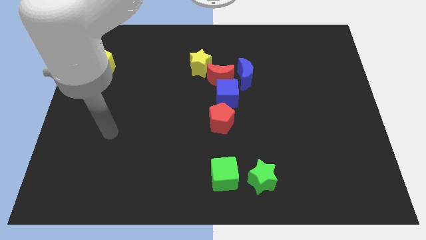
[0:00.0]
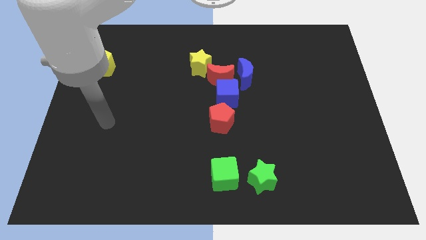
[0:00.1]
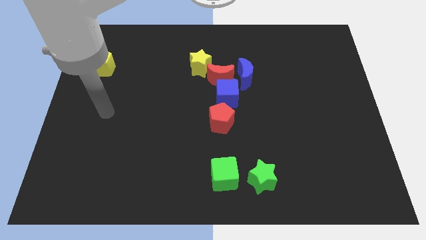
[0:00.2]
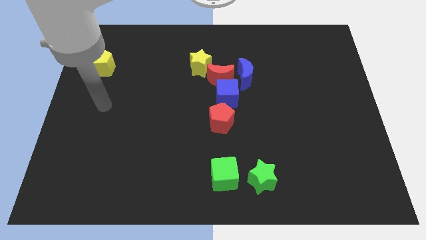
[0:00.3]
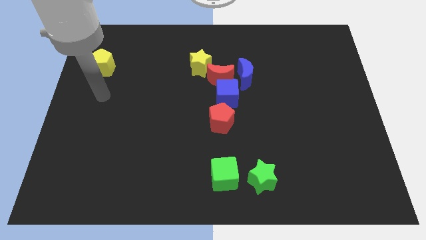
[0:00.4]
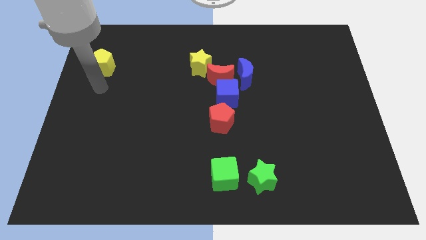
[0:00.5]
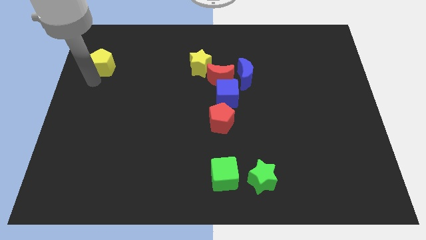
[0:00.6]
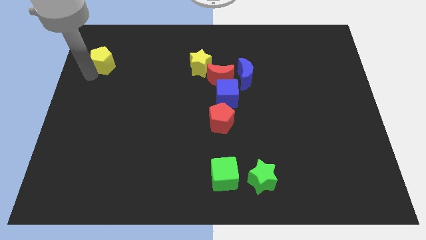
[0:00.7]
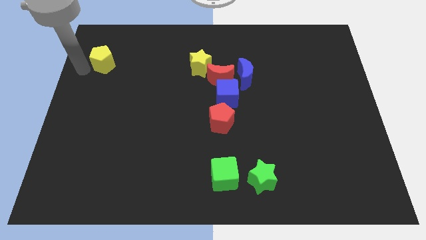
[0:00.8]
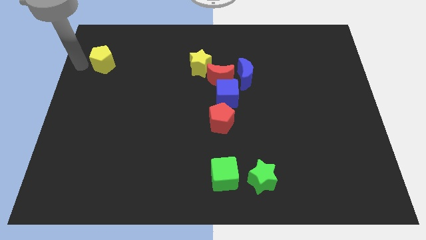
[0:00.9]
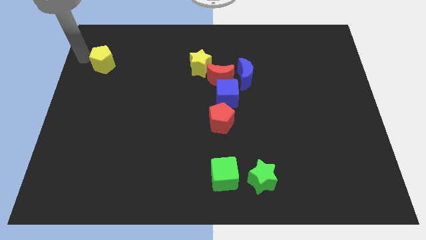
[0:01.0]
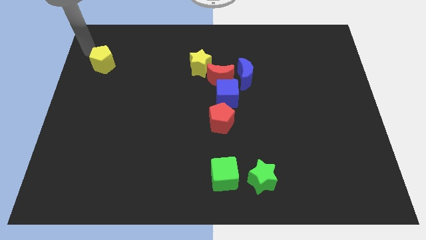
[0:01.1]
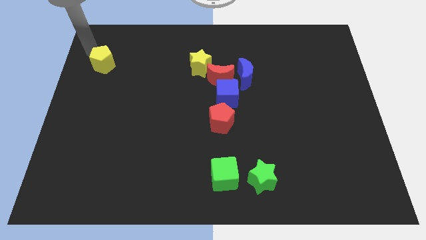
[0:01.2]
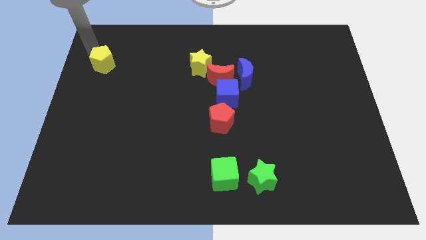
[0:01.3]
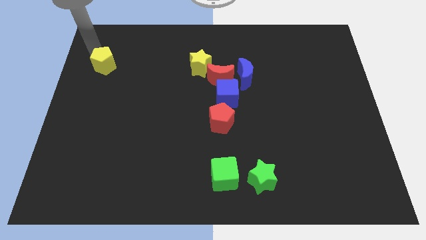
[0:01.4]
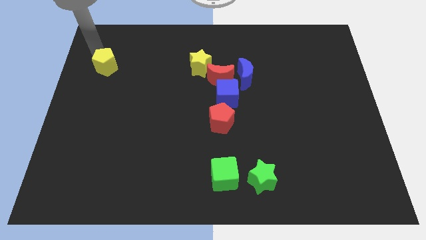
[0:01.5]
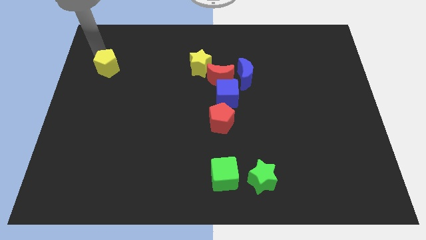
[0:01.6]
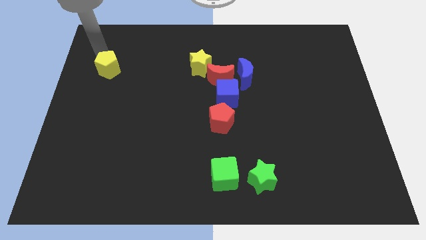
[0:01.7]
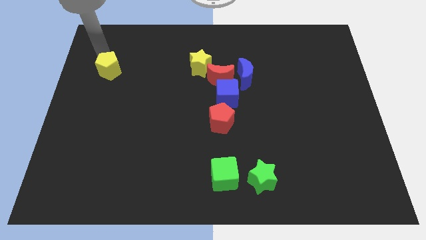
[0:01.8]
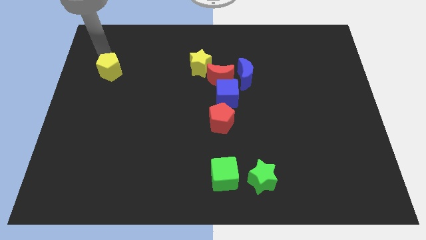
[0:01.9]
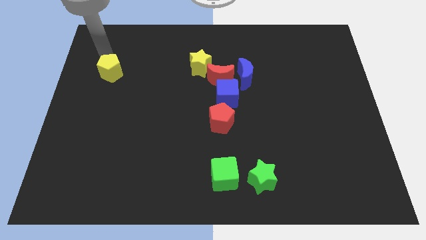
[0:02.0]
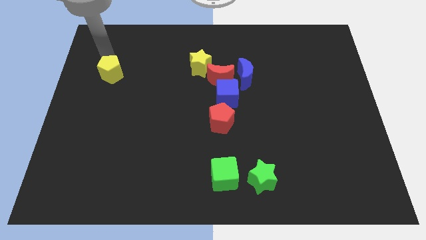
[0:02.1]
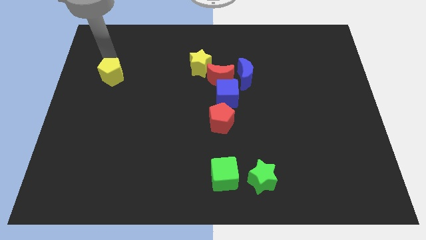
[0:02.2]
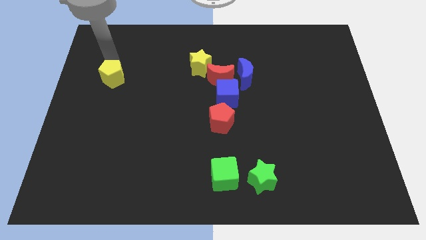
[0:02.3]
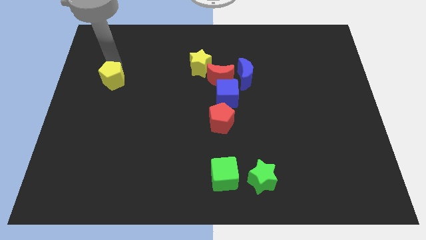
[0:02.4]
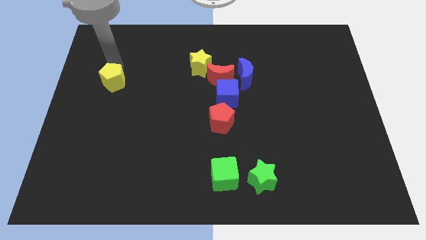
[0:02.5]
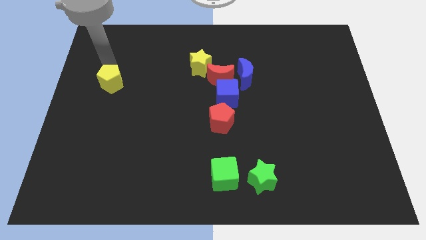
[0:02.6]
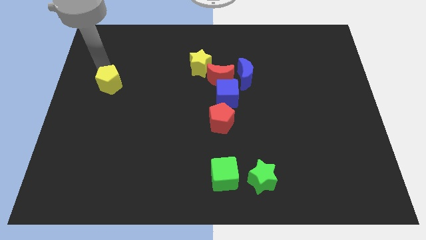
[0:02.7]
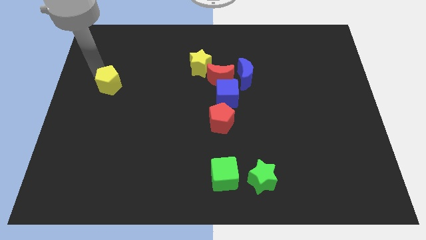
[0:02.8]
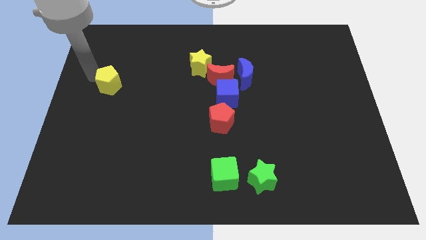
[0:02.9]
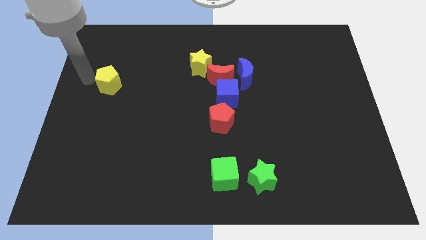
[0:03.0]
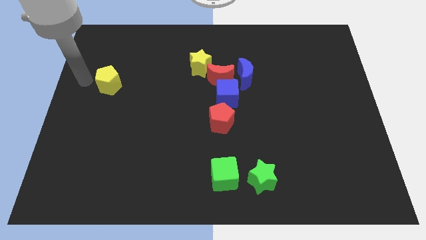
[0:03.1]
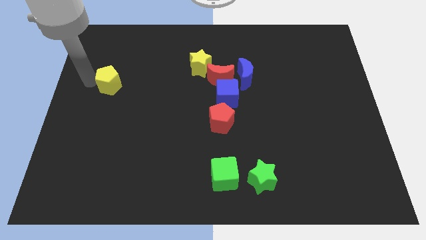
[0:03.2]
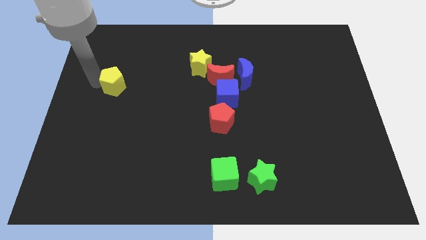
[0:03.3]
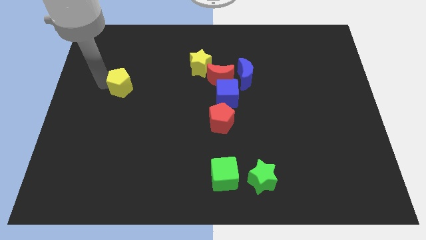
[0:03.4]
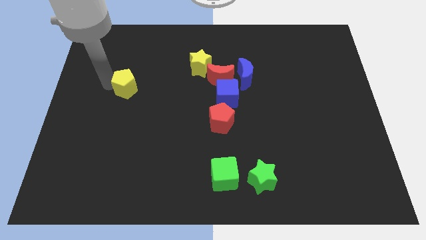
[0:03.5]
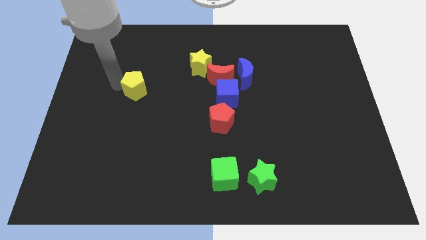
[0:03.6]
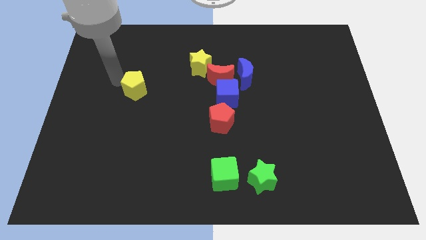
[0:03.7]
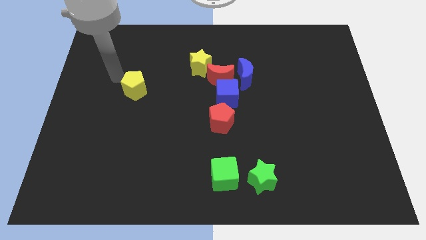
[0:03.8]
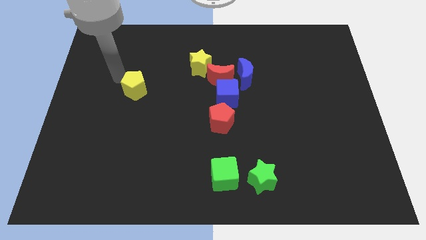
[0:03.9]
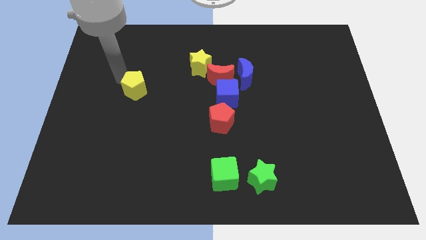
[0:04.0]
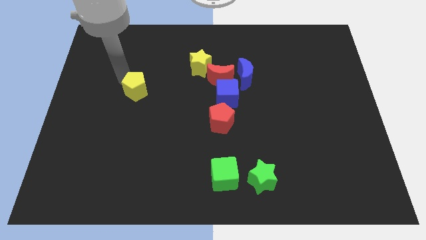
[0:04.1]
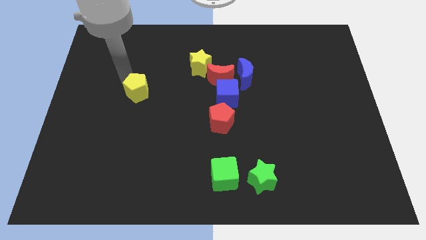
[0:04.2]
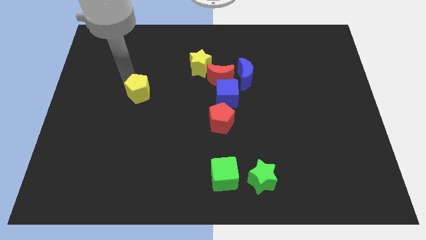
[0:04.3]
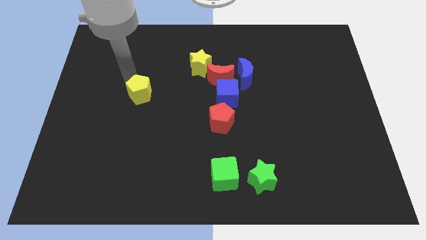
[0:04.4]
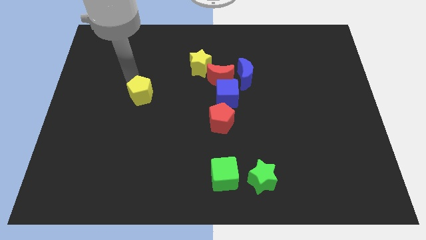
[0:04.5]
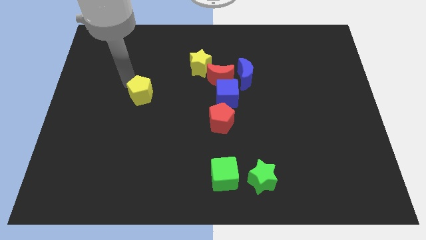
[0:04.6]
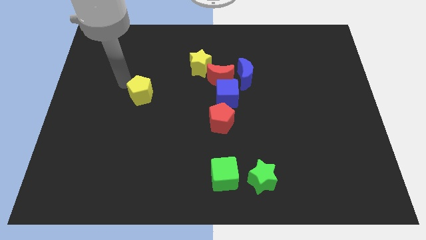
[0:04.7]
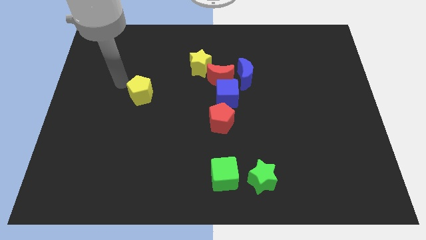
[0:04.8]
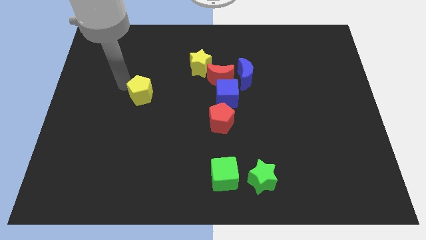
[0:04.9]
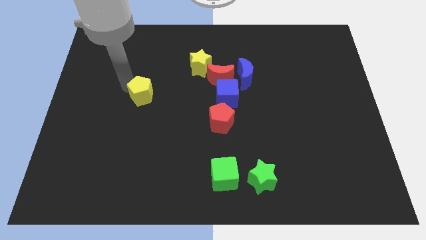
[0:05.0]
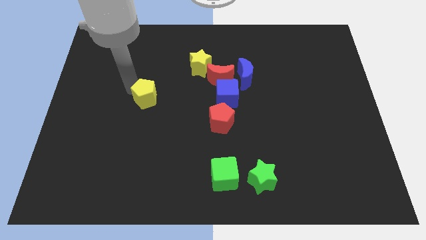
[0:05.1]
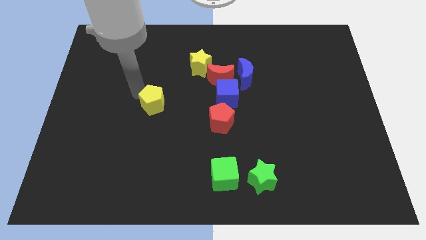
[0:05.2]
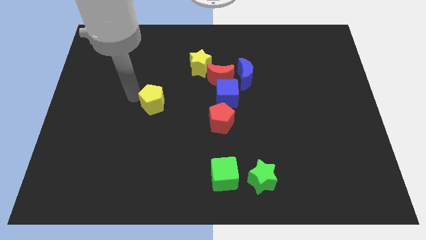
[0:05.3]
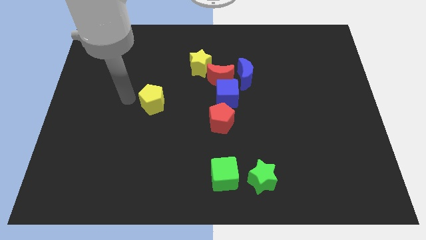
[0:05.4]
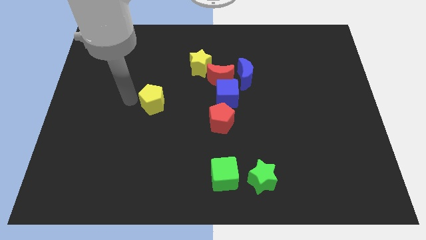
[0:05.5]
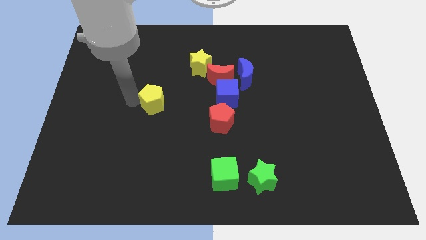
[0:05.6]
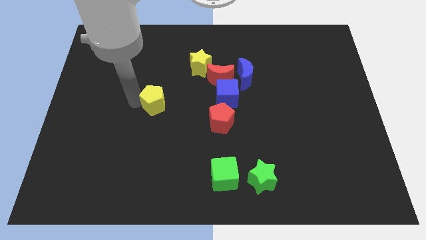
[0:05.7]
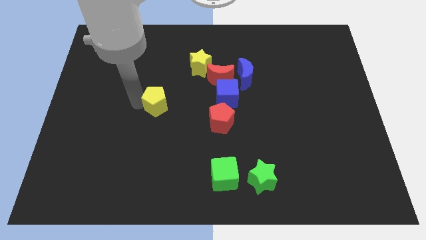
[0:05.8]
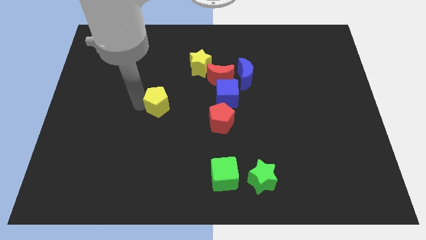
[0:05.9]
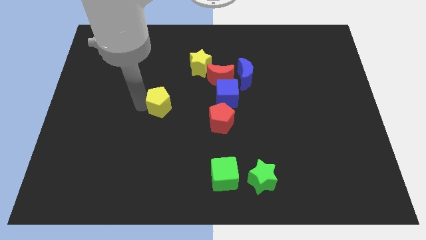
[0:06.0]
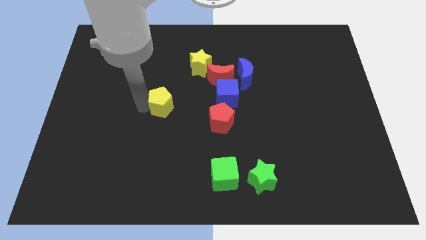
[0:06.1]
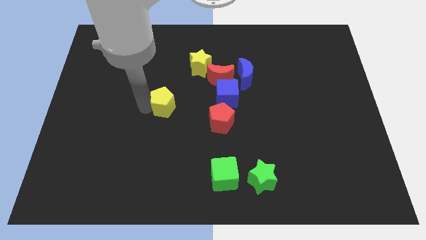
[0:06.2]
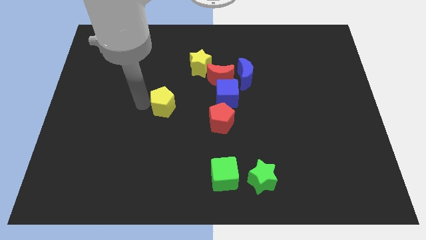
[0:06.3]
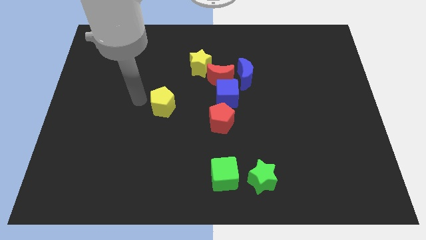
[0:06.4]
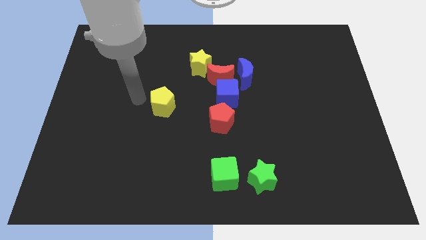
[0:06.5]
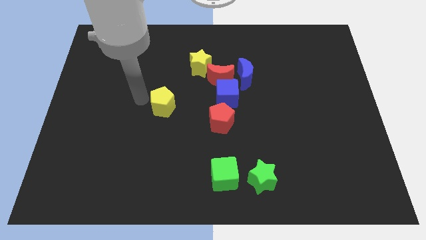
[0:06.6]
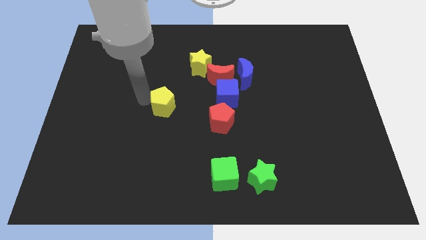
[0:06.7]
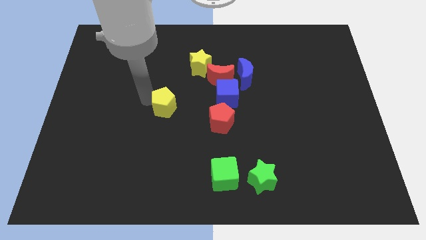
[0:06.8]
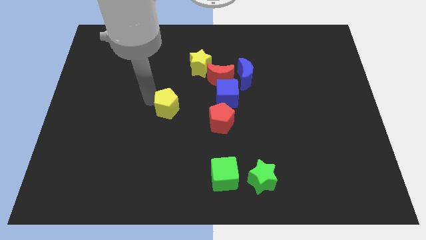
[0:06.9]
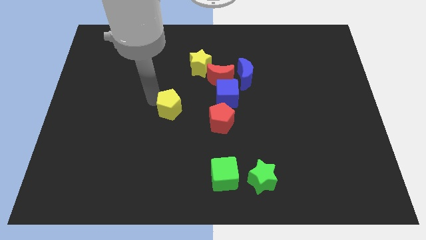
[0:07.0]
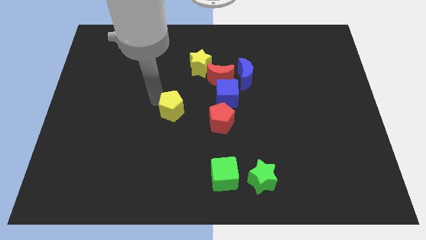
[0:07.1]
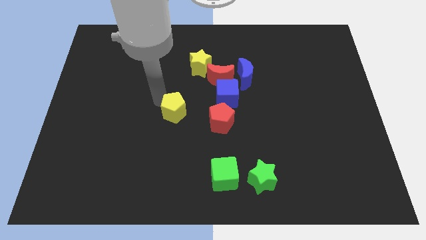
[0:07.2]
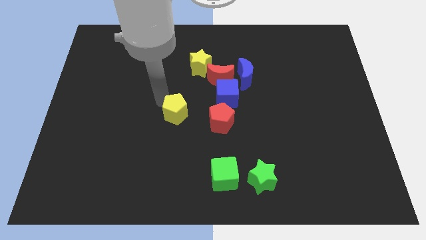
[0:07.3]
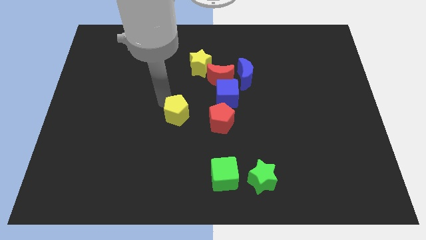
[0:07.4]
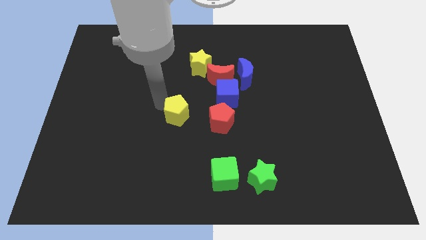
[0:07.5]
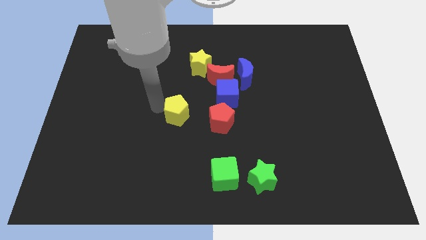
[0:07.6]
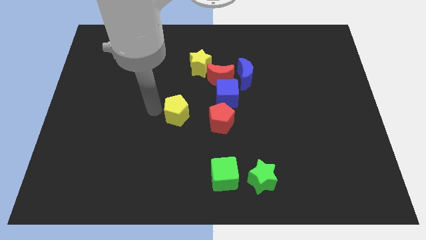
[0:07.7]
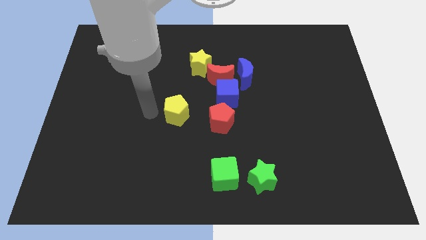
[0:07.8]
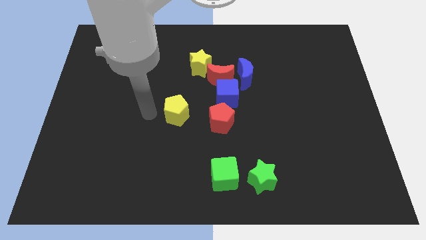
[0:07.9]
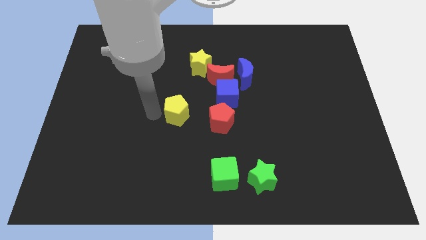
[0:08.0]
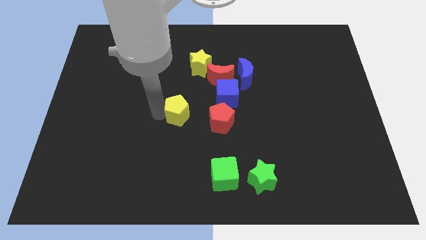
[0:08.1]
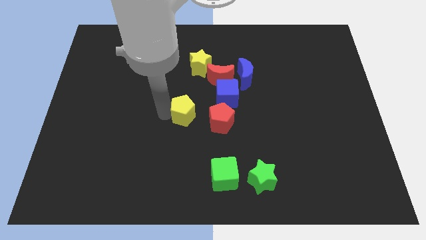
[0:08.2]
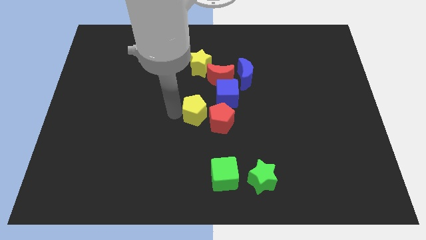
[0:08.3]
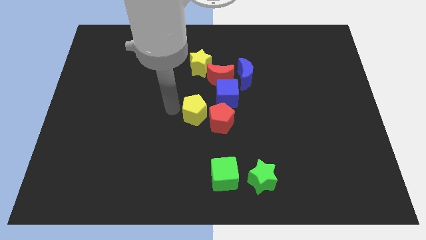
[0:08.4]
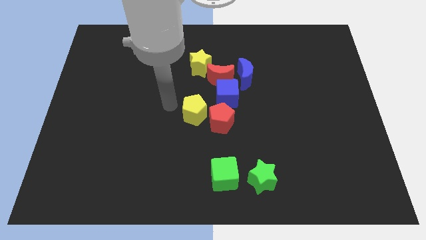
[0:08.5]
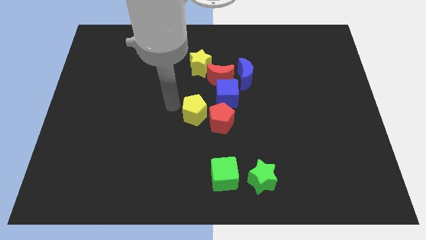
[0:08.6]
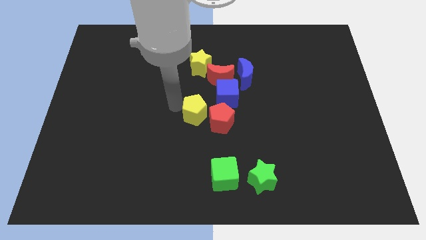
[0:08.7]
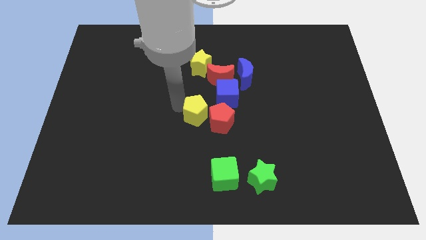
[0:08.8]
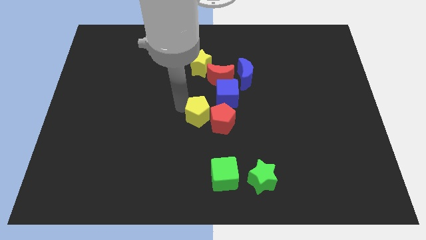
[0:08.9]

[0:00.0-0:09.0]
put the yellow pentagon to the red pentagon
